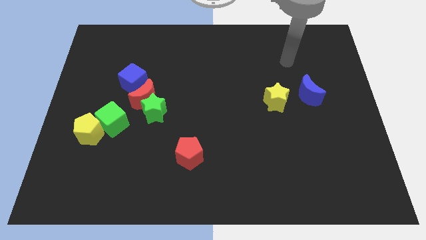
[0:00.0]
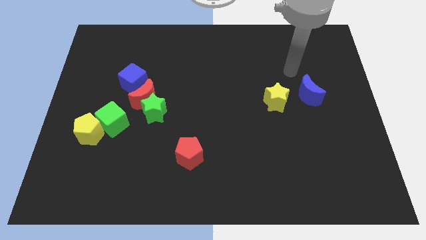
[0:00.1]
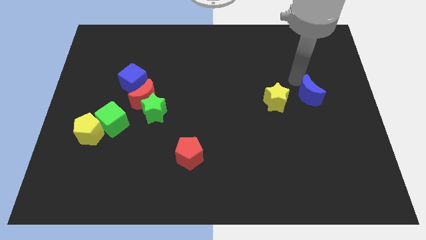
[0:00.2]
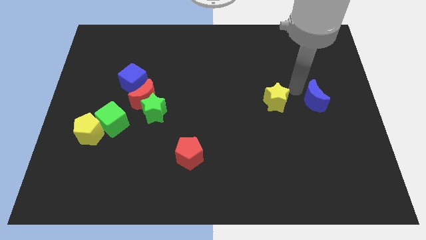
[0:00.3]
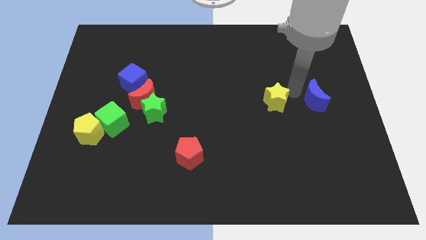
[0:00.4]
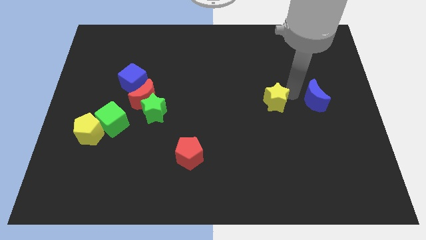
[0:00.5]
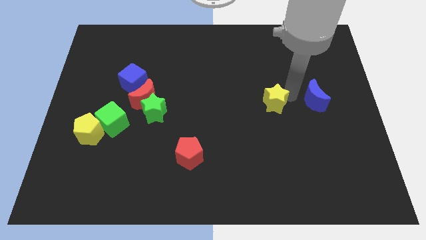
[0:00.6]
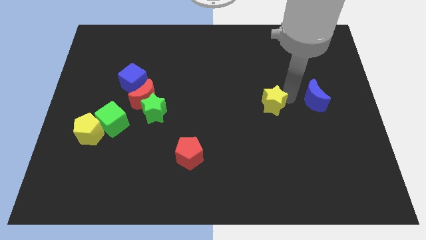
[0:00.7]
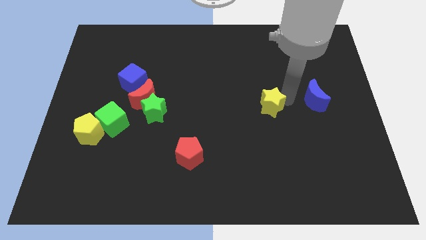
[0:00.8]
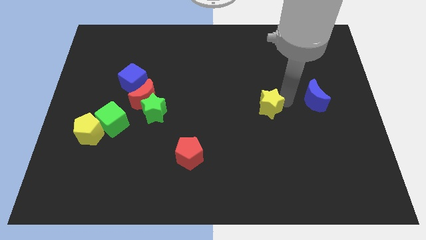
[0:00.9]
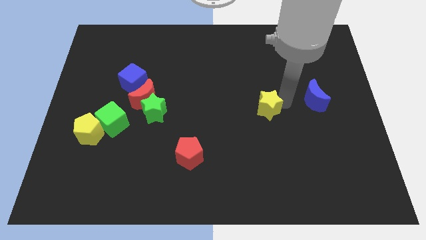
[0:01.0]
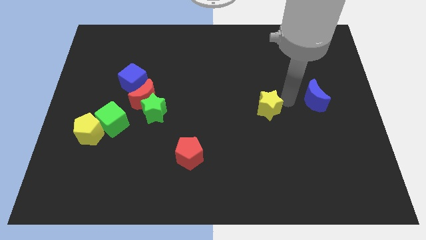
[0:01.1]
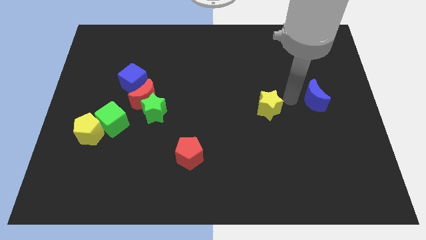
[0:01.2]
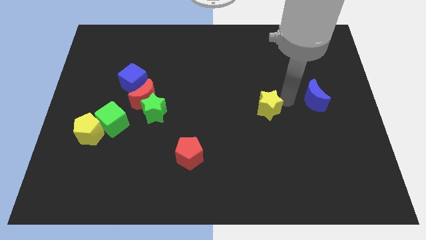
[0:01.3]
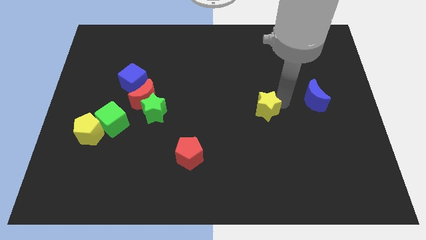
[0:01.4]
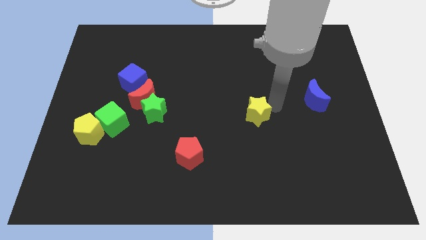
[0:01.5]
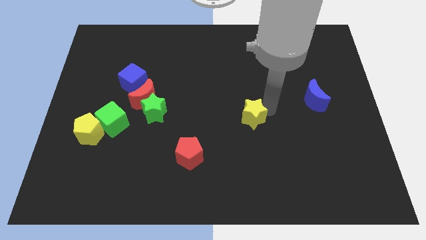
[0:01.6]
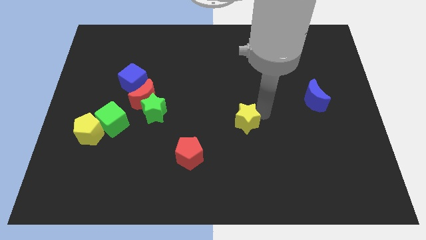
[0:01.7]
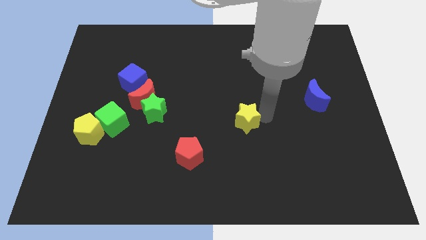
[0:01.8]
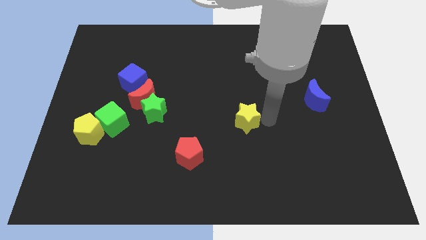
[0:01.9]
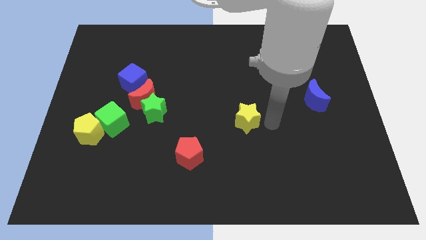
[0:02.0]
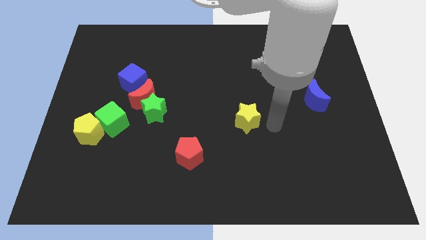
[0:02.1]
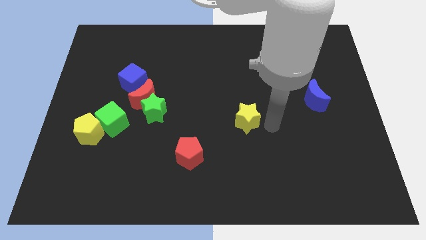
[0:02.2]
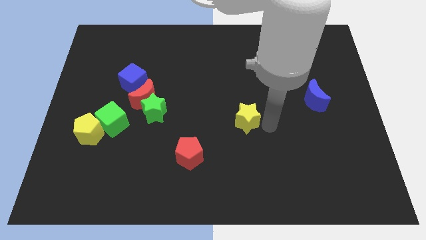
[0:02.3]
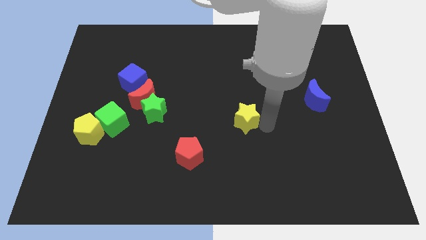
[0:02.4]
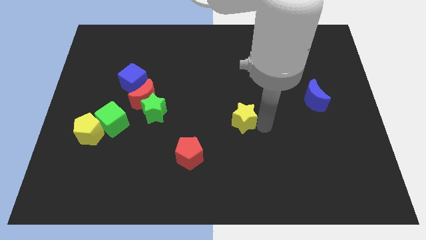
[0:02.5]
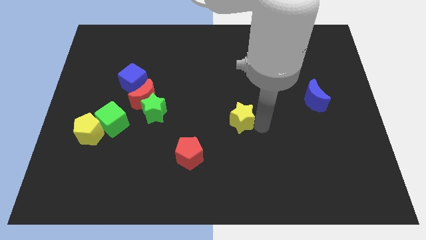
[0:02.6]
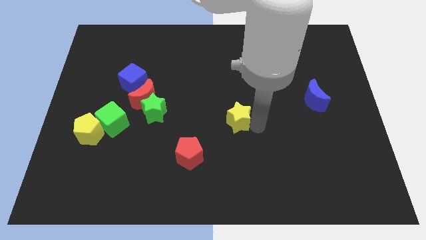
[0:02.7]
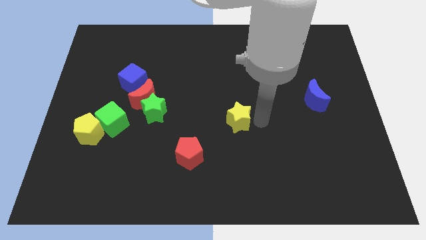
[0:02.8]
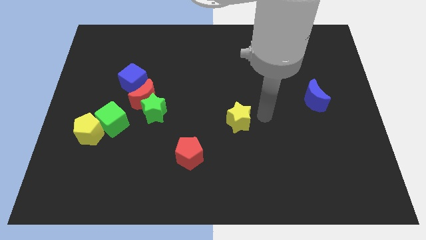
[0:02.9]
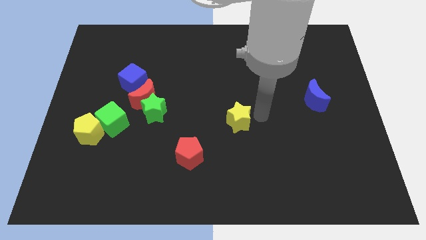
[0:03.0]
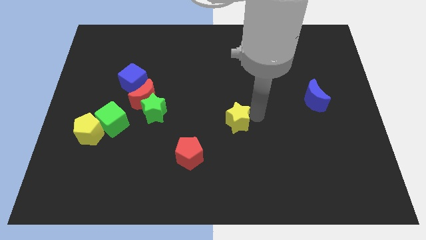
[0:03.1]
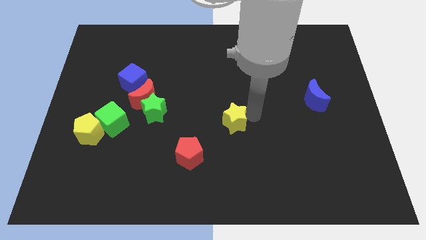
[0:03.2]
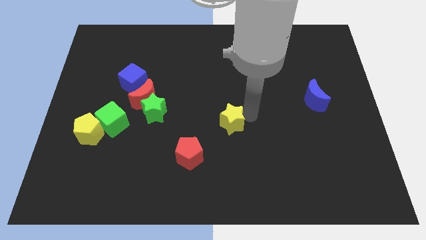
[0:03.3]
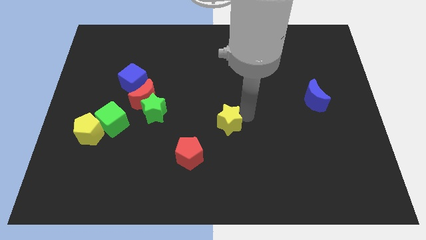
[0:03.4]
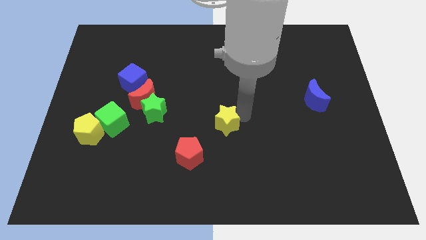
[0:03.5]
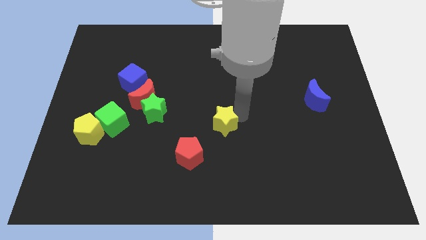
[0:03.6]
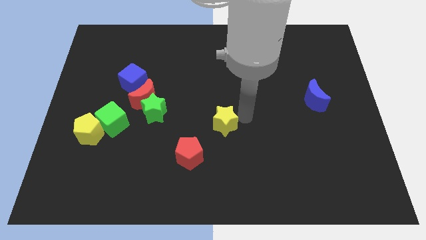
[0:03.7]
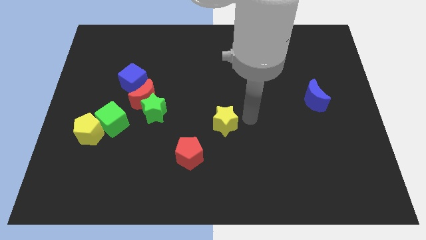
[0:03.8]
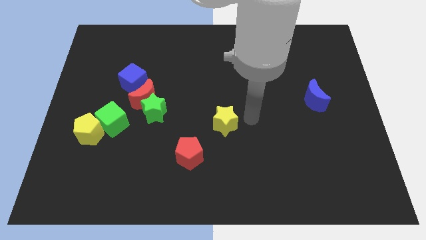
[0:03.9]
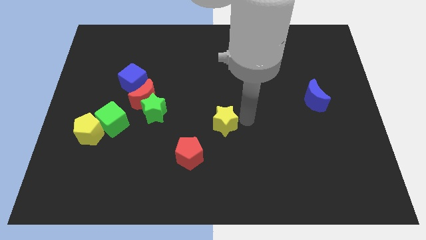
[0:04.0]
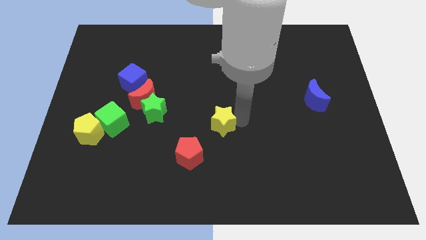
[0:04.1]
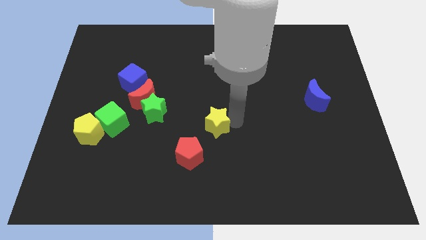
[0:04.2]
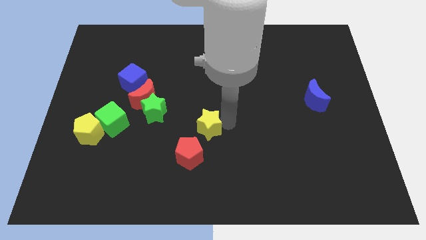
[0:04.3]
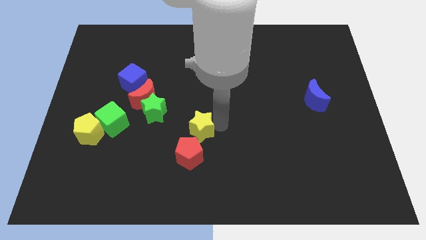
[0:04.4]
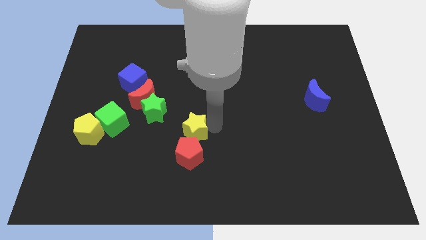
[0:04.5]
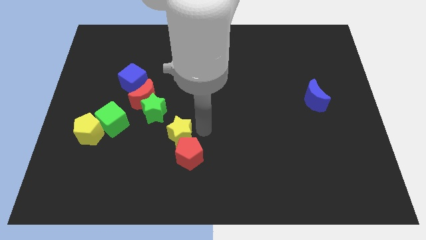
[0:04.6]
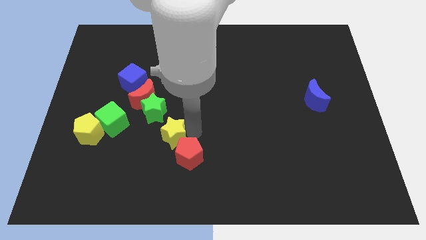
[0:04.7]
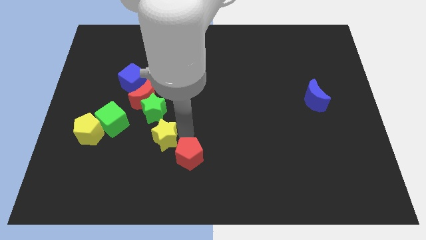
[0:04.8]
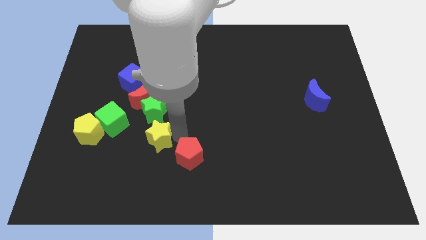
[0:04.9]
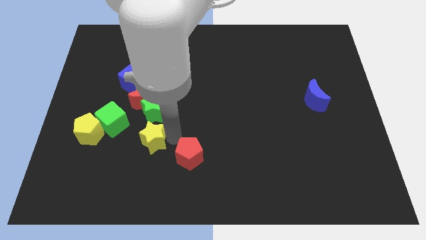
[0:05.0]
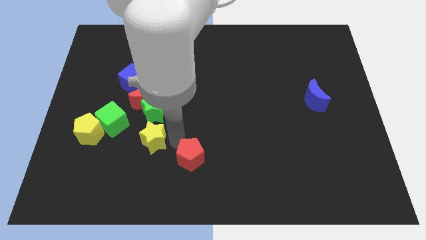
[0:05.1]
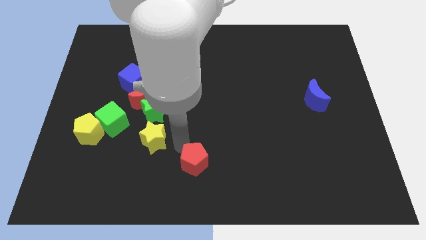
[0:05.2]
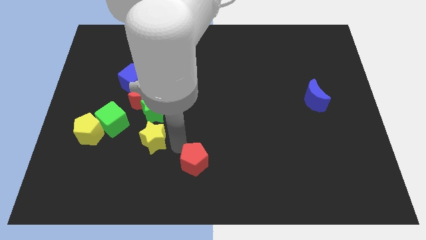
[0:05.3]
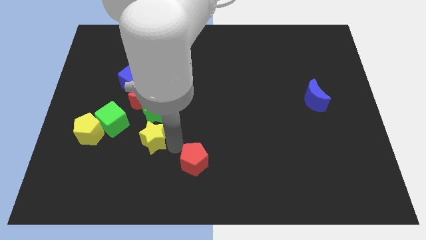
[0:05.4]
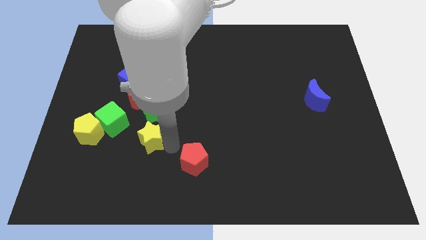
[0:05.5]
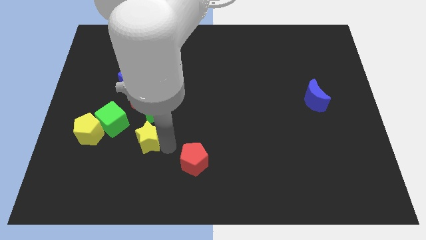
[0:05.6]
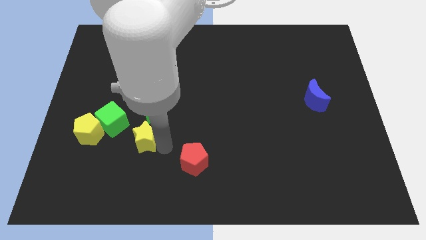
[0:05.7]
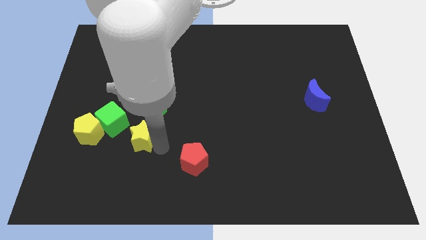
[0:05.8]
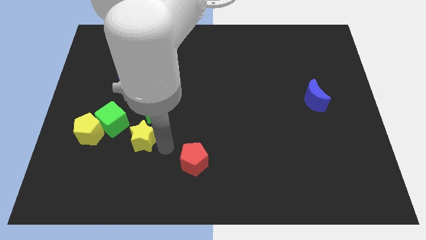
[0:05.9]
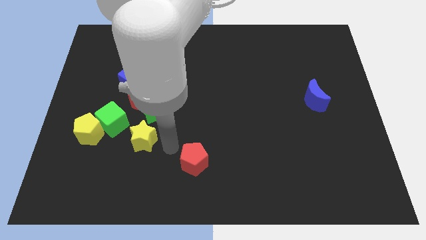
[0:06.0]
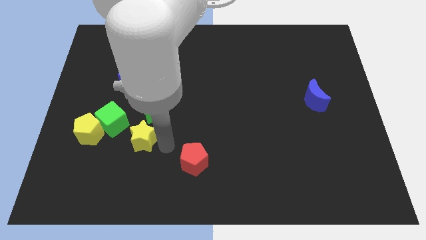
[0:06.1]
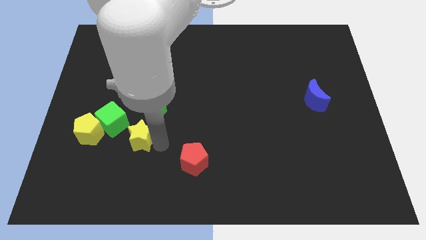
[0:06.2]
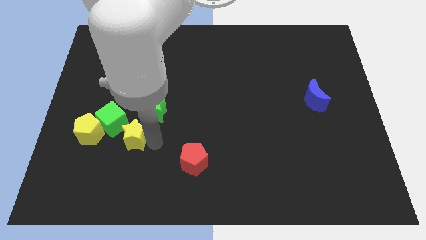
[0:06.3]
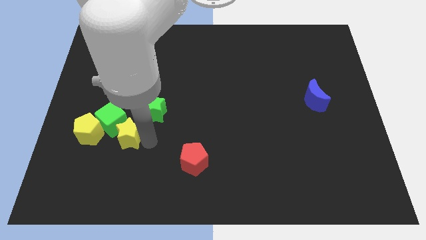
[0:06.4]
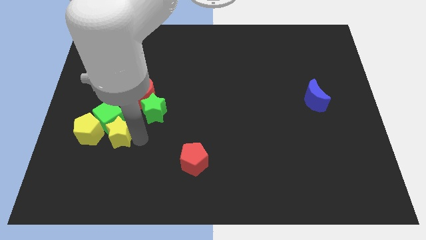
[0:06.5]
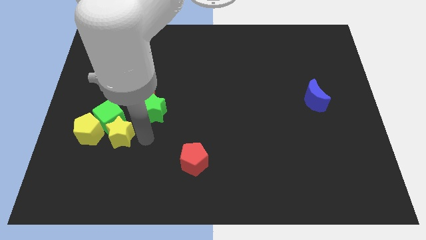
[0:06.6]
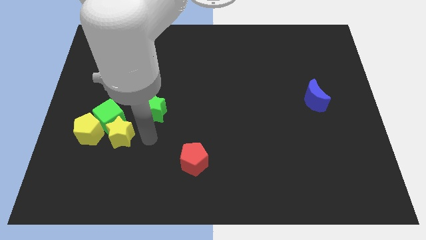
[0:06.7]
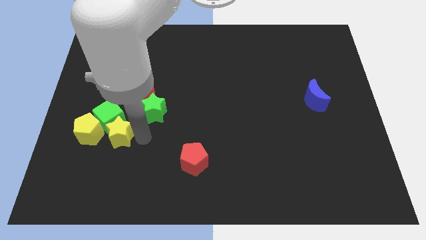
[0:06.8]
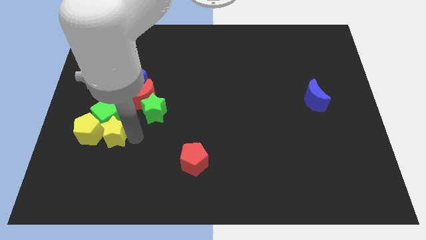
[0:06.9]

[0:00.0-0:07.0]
slide the yellow star close to the yellow pentagon

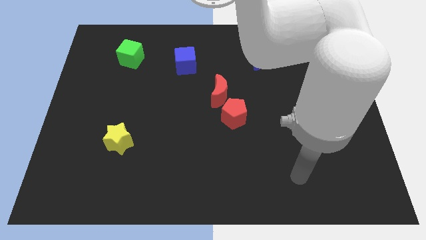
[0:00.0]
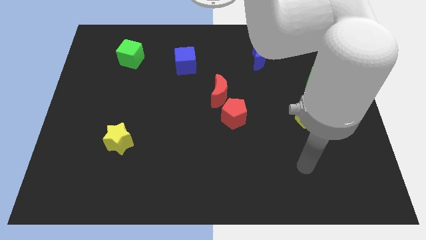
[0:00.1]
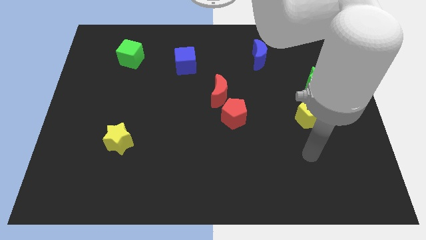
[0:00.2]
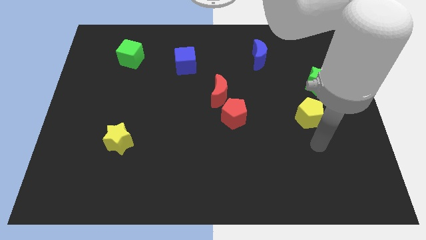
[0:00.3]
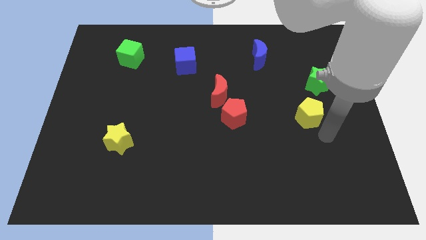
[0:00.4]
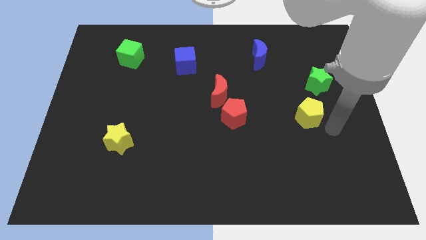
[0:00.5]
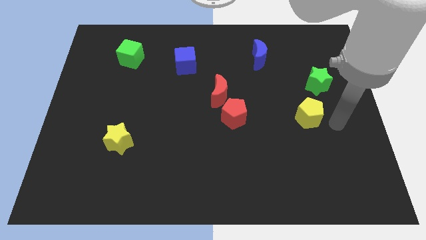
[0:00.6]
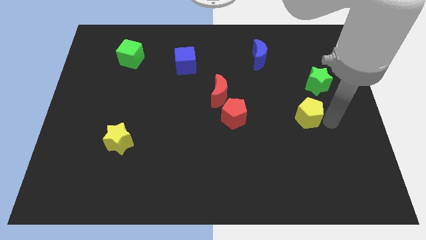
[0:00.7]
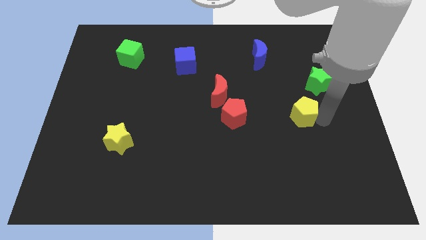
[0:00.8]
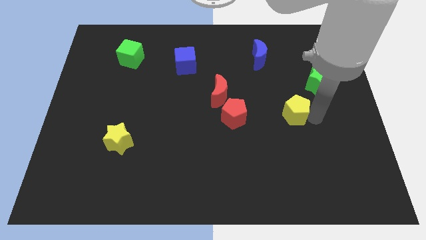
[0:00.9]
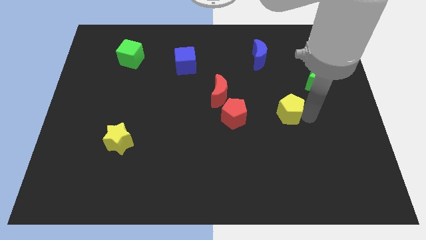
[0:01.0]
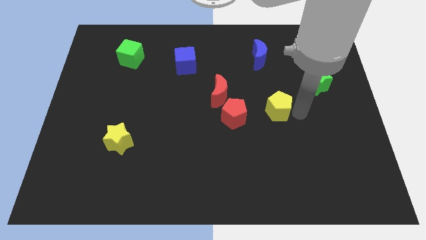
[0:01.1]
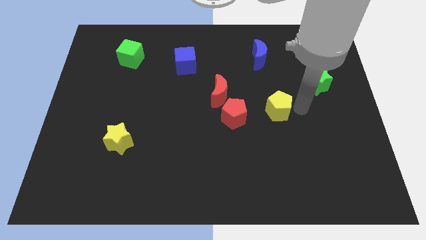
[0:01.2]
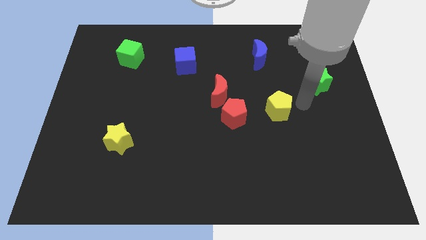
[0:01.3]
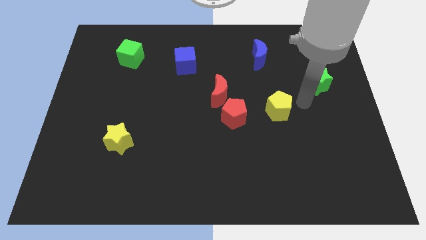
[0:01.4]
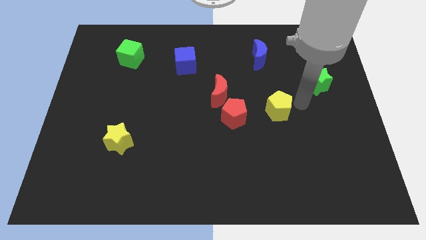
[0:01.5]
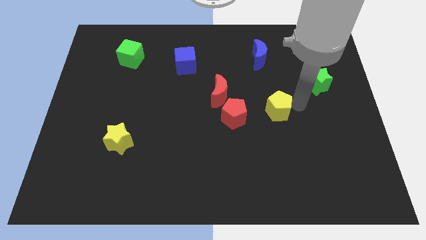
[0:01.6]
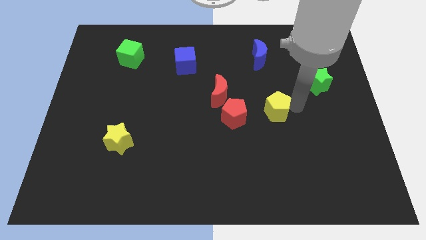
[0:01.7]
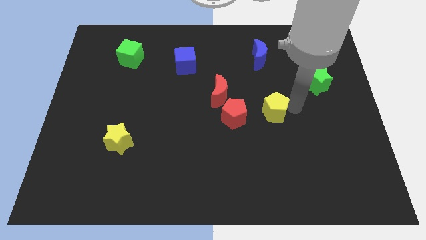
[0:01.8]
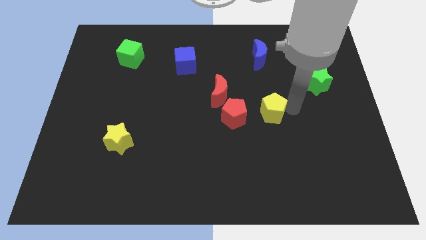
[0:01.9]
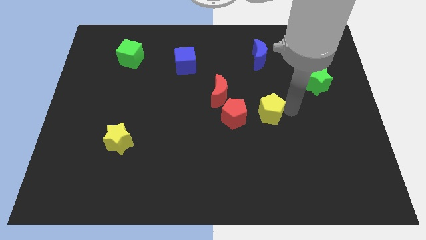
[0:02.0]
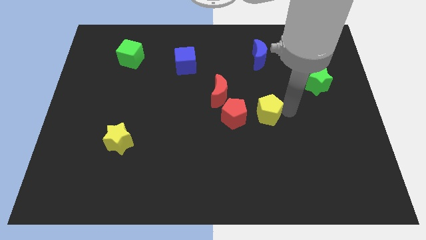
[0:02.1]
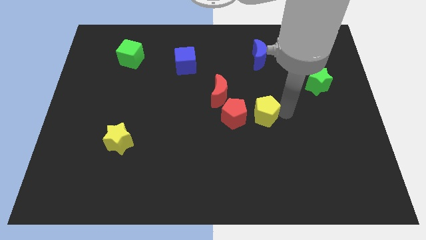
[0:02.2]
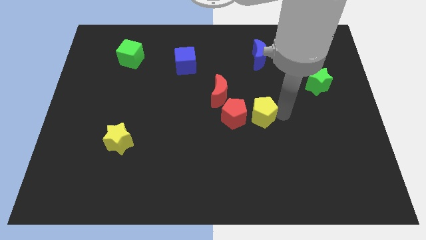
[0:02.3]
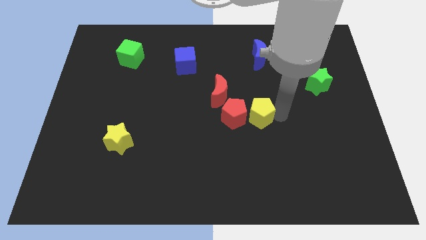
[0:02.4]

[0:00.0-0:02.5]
slide the yellow pentagon close to the red pentagon
